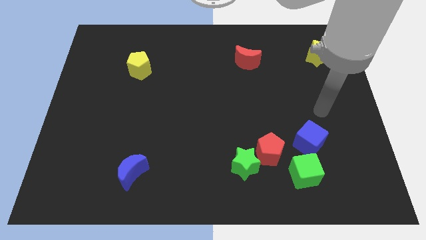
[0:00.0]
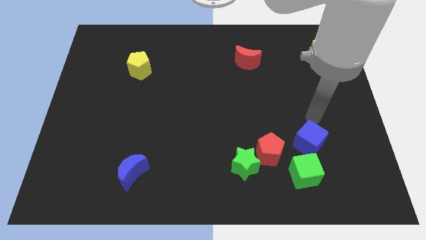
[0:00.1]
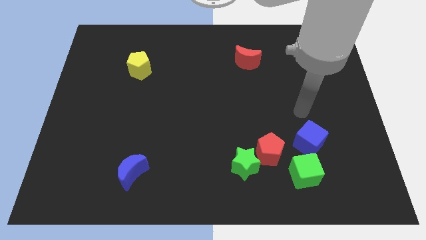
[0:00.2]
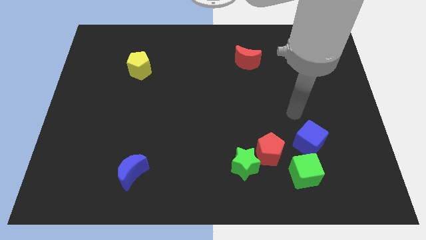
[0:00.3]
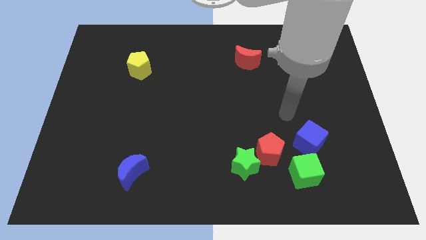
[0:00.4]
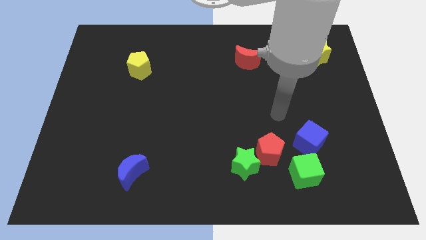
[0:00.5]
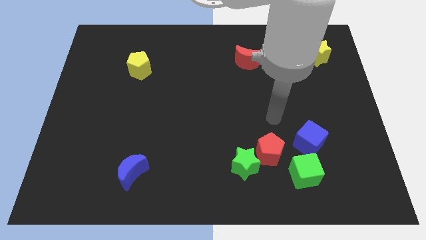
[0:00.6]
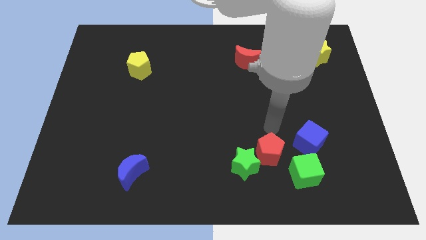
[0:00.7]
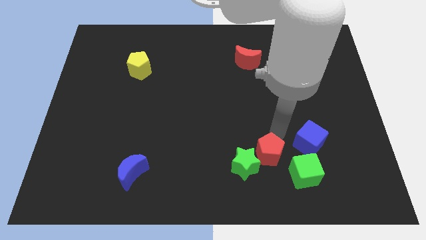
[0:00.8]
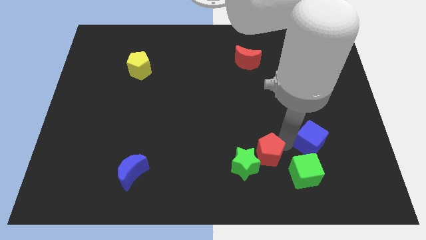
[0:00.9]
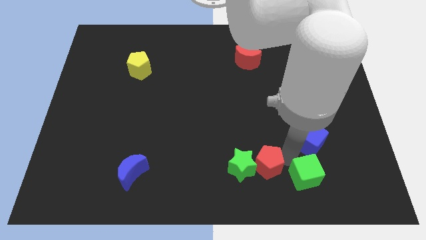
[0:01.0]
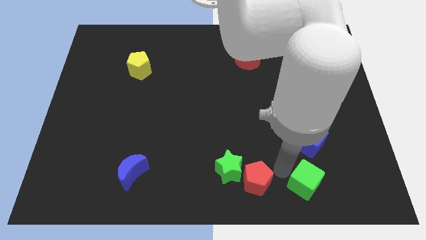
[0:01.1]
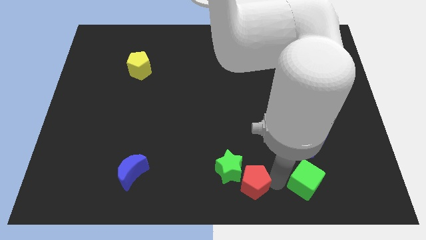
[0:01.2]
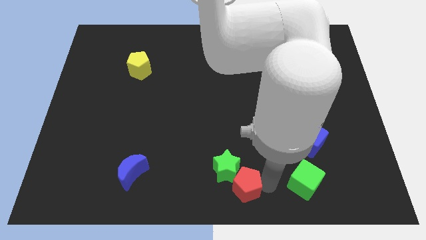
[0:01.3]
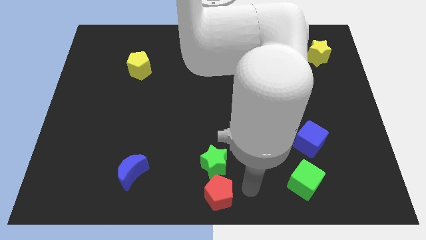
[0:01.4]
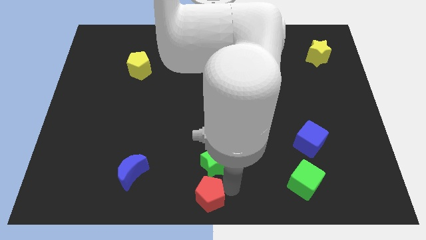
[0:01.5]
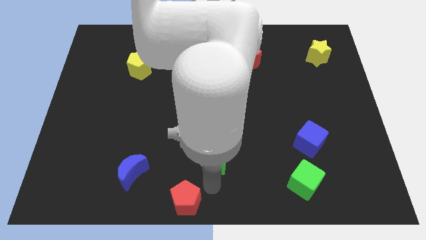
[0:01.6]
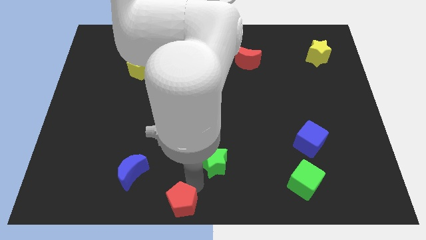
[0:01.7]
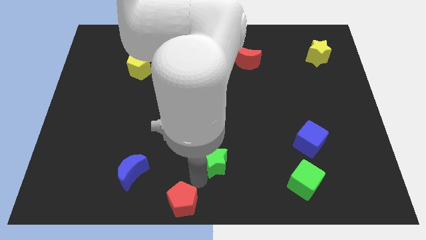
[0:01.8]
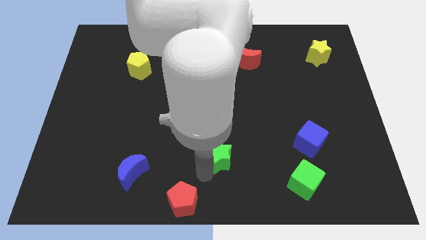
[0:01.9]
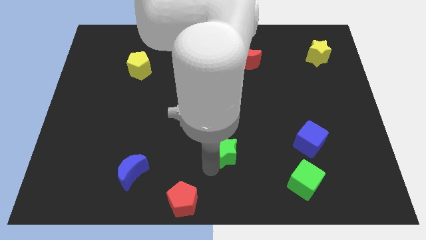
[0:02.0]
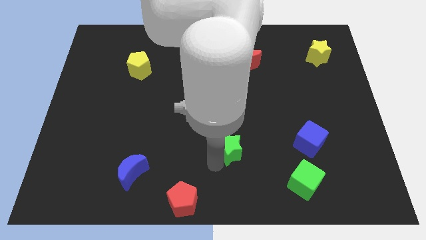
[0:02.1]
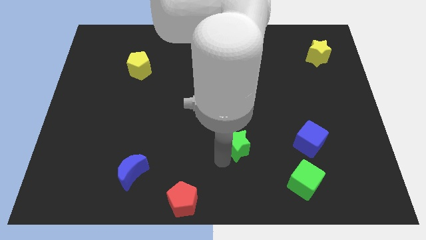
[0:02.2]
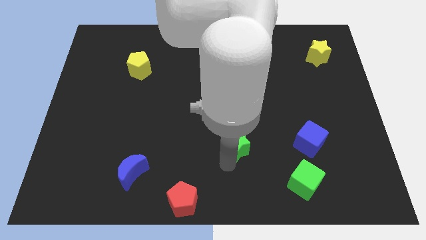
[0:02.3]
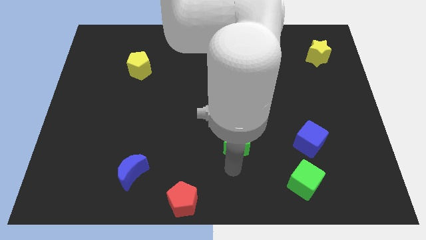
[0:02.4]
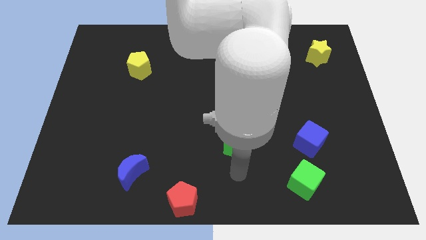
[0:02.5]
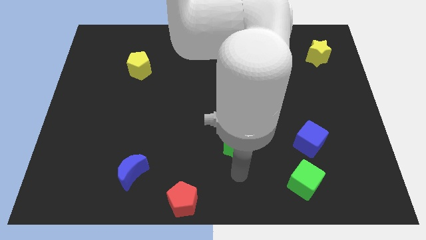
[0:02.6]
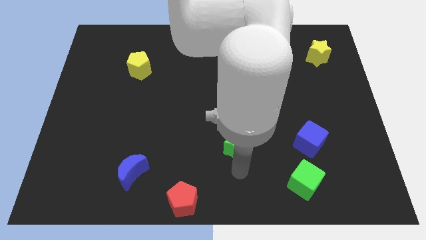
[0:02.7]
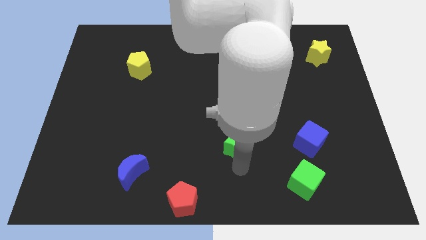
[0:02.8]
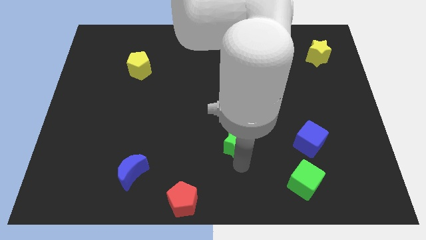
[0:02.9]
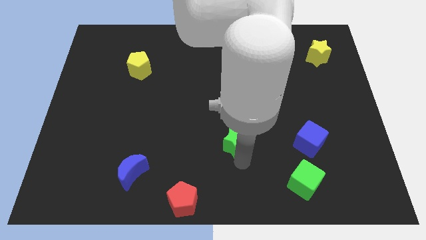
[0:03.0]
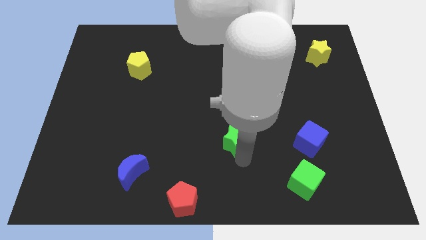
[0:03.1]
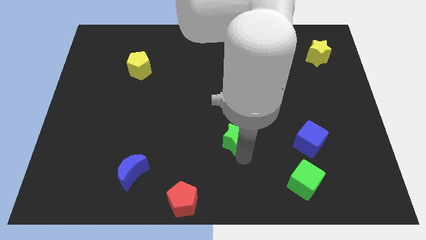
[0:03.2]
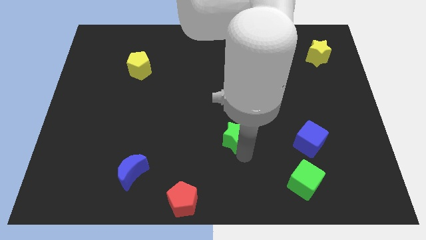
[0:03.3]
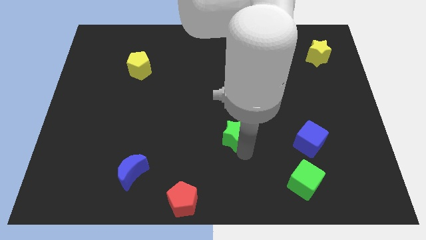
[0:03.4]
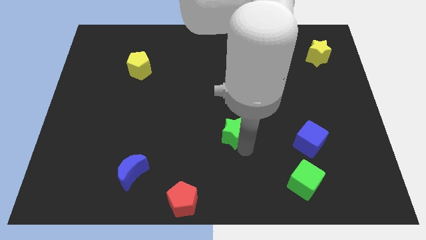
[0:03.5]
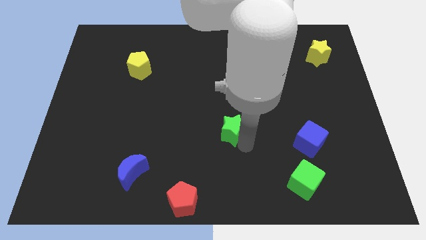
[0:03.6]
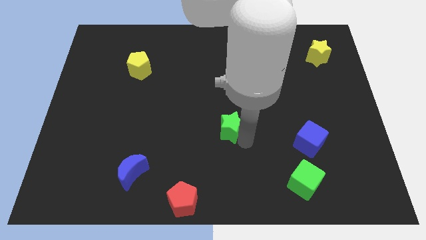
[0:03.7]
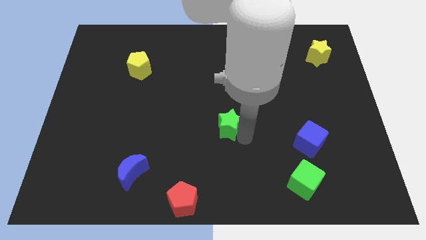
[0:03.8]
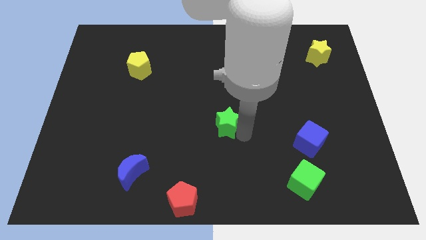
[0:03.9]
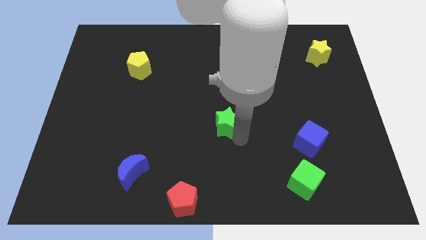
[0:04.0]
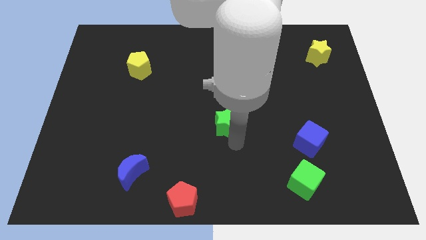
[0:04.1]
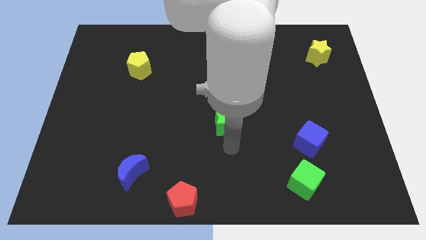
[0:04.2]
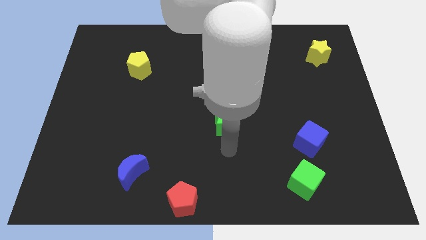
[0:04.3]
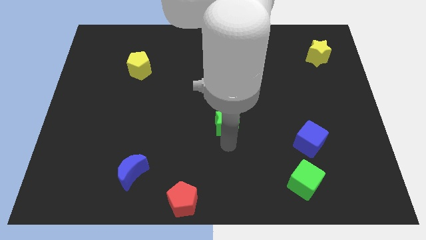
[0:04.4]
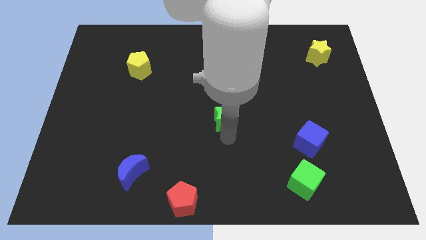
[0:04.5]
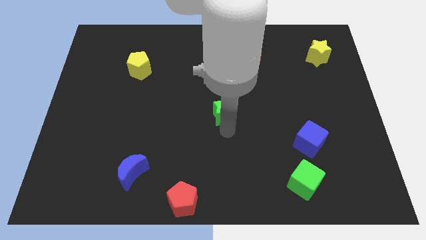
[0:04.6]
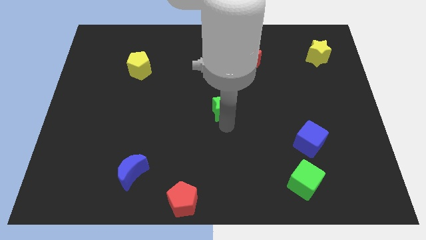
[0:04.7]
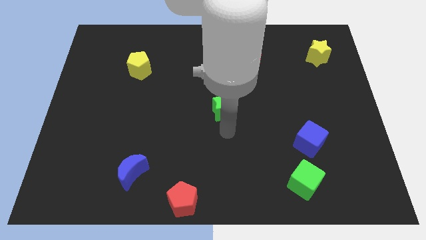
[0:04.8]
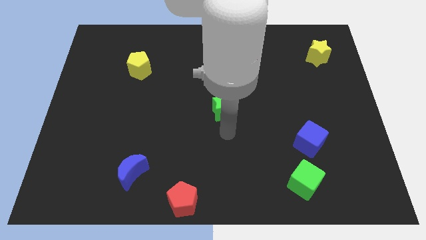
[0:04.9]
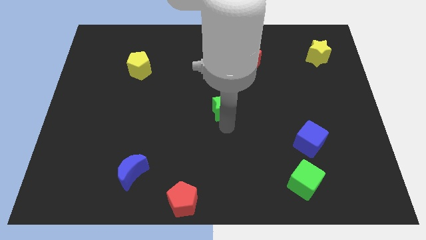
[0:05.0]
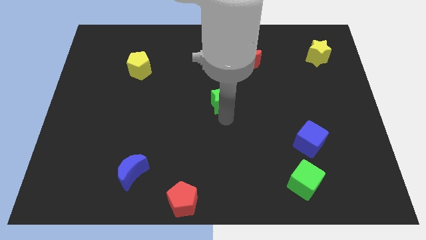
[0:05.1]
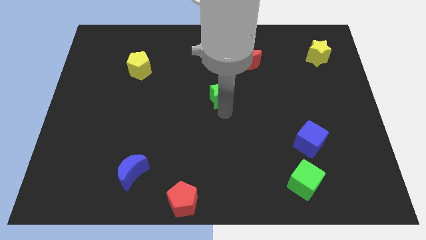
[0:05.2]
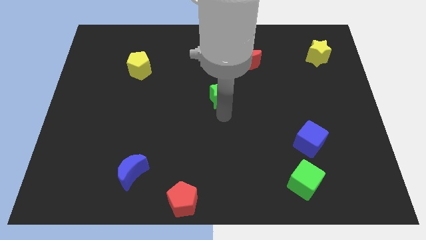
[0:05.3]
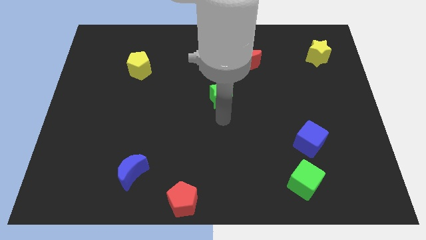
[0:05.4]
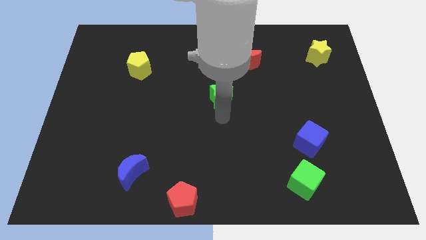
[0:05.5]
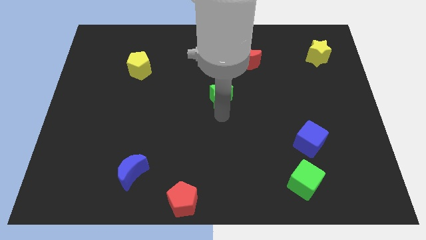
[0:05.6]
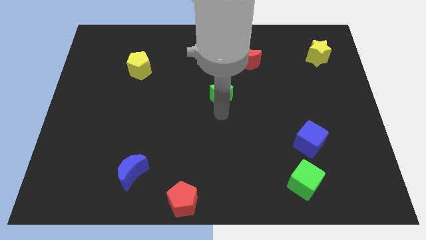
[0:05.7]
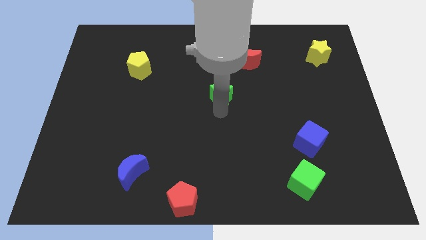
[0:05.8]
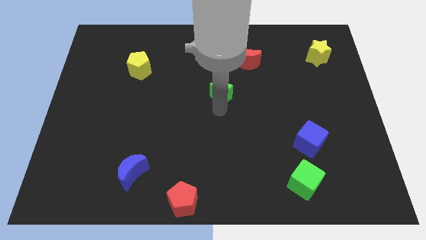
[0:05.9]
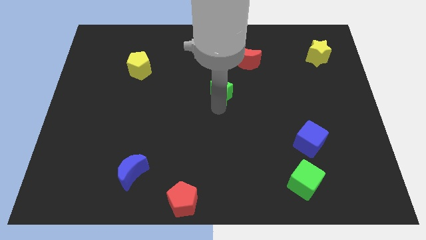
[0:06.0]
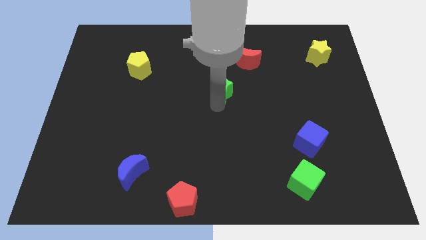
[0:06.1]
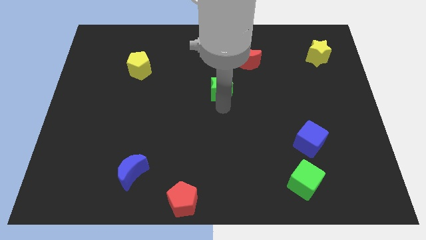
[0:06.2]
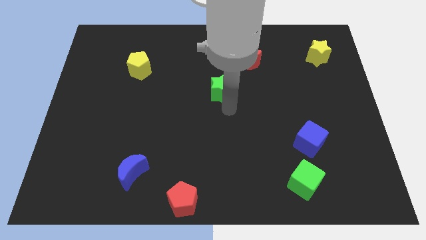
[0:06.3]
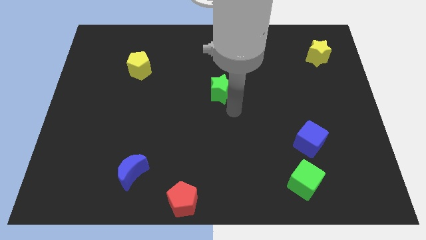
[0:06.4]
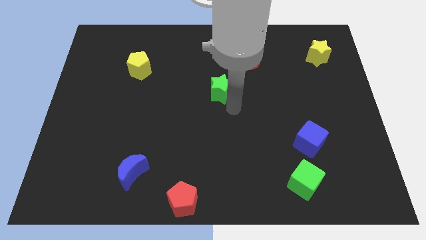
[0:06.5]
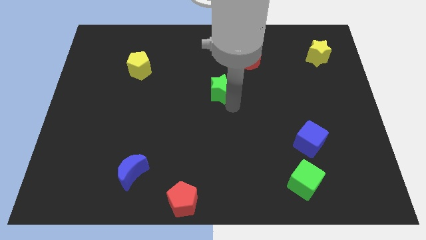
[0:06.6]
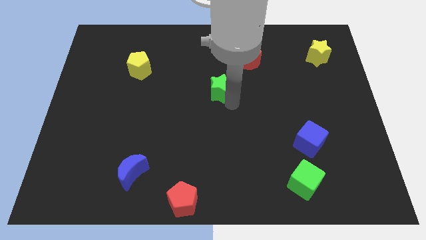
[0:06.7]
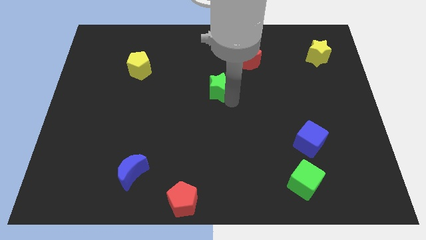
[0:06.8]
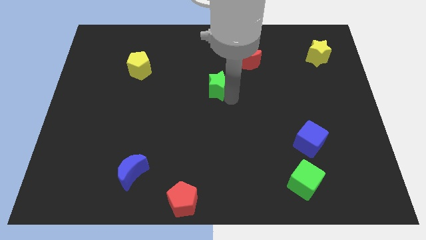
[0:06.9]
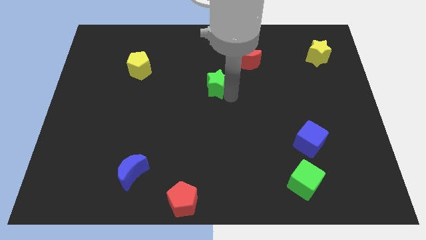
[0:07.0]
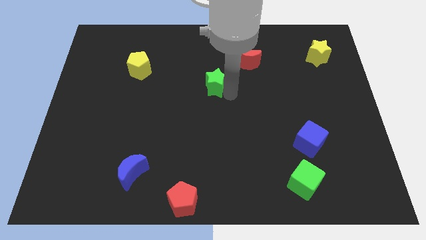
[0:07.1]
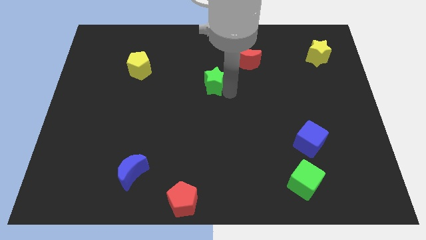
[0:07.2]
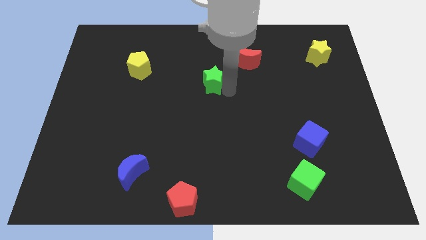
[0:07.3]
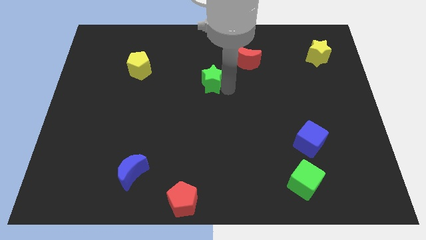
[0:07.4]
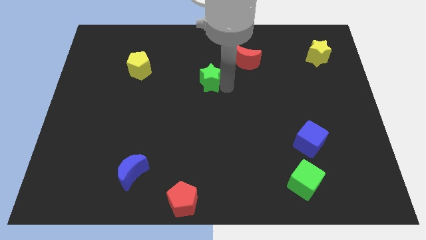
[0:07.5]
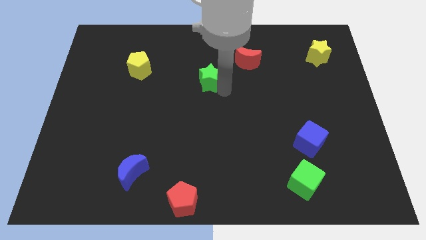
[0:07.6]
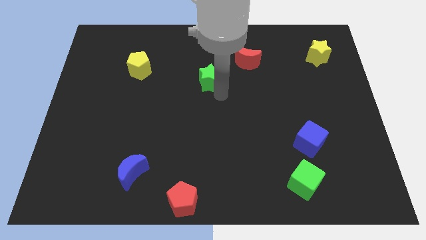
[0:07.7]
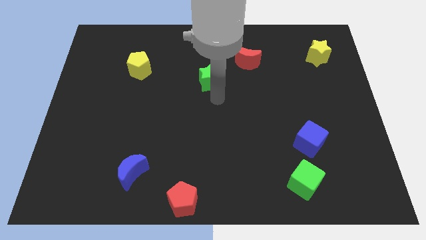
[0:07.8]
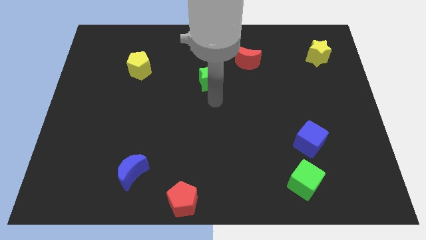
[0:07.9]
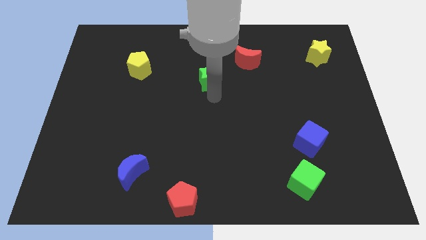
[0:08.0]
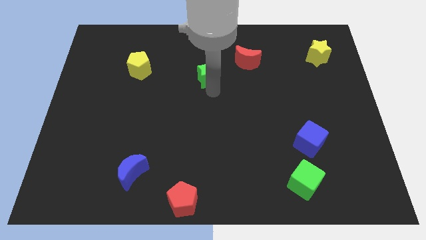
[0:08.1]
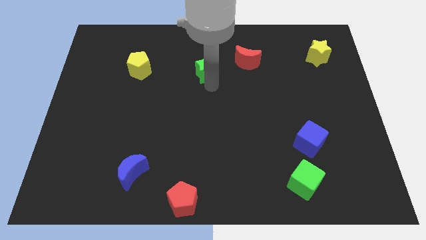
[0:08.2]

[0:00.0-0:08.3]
push the green star just left of the red moon
